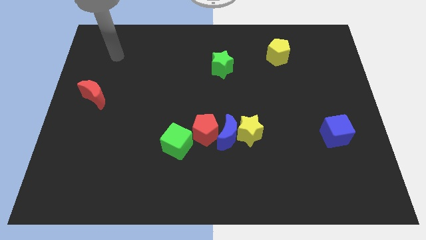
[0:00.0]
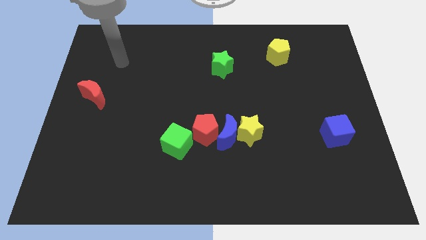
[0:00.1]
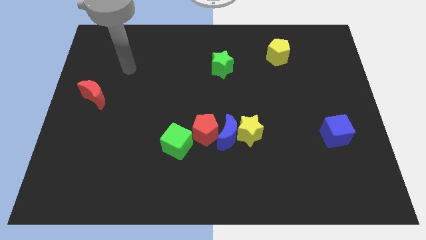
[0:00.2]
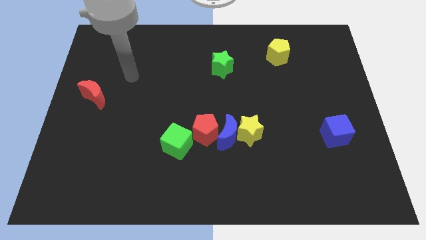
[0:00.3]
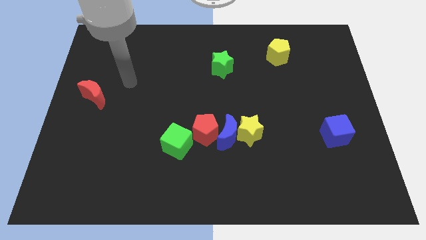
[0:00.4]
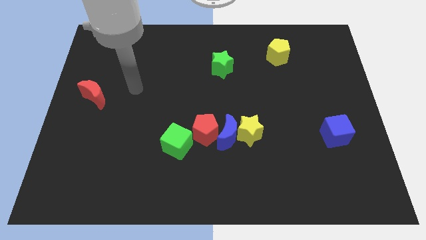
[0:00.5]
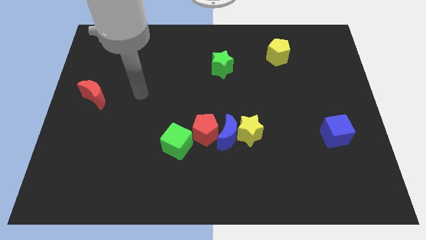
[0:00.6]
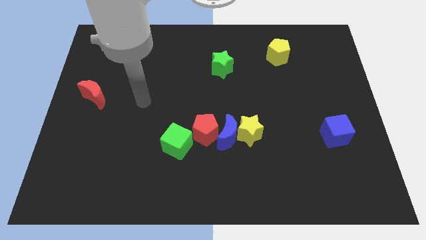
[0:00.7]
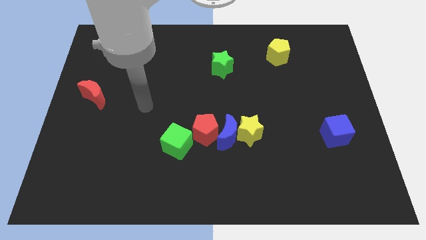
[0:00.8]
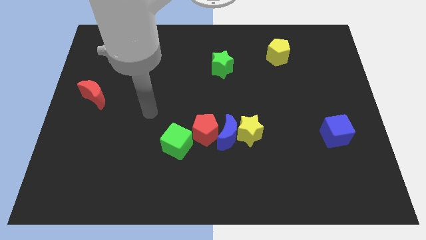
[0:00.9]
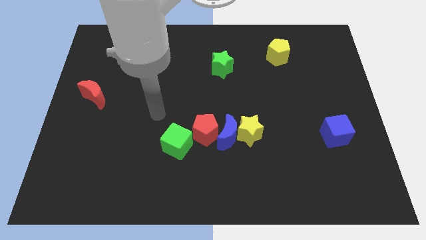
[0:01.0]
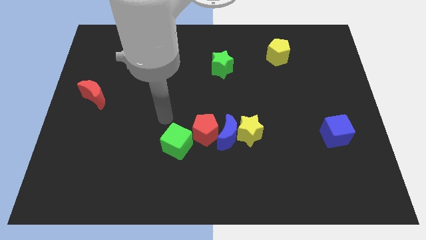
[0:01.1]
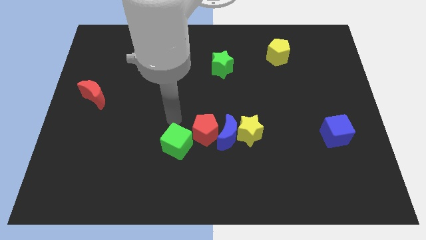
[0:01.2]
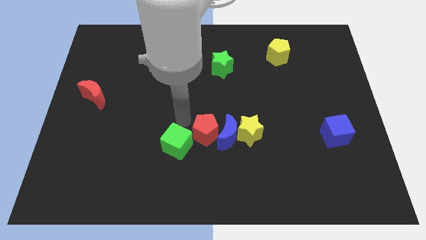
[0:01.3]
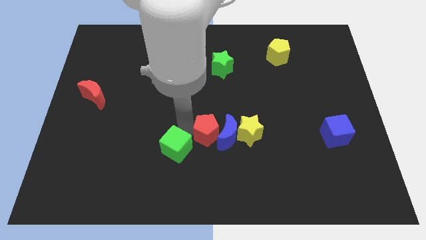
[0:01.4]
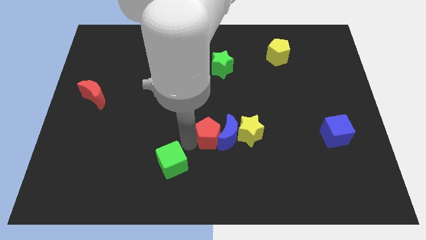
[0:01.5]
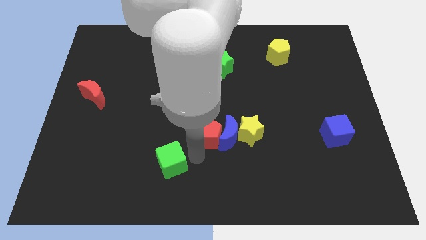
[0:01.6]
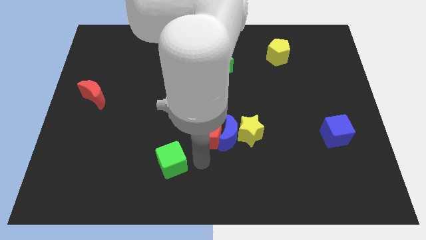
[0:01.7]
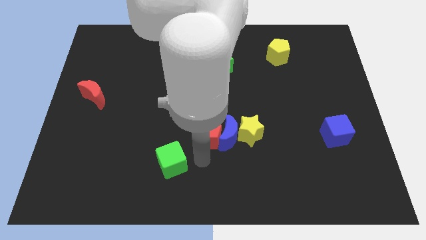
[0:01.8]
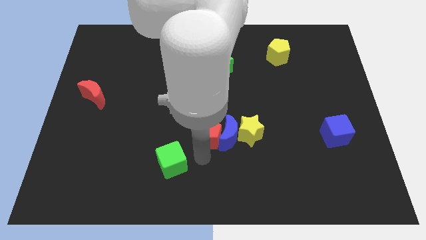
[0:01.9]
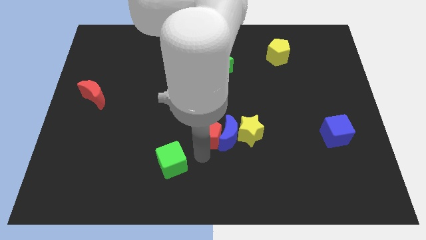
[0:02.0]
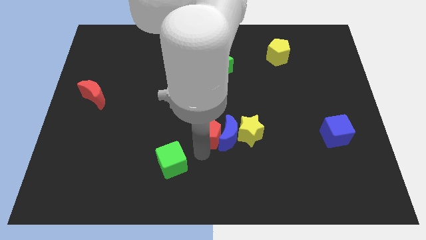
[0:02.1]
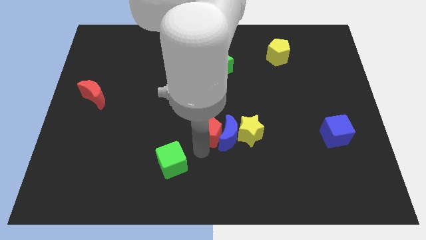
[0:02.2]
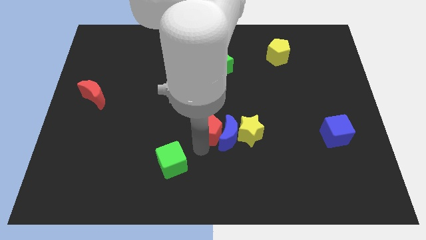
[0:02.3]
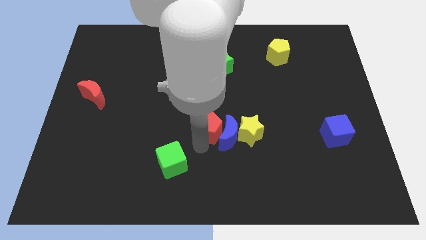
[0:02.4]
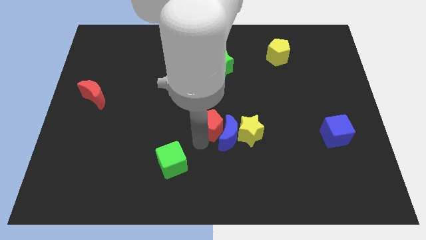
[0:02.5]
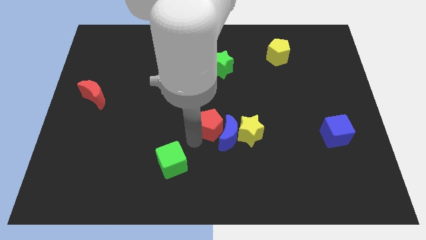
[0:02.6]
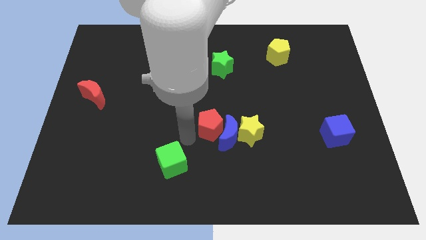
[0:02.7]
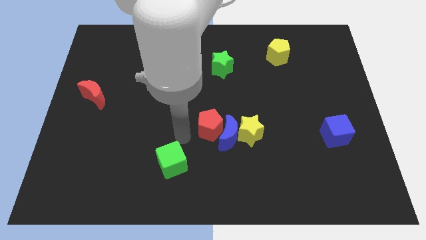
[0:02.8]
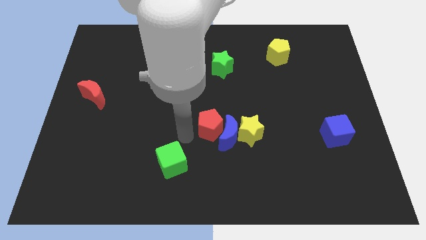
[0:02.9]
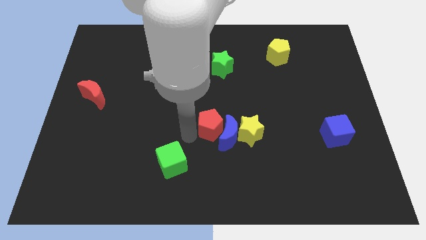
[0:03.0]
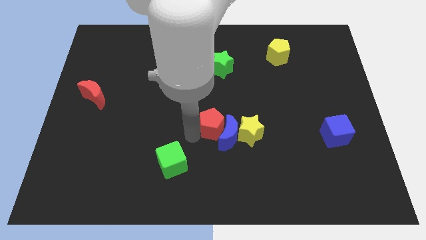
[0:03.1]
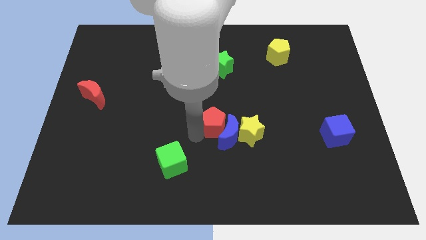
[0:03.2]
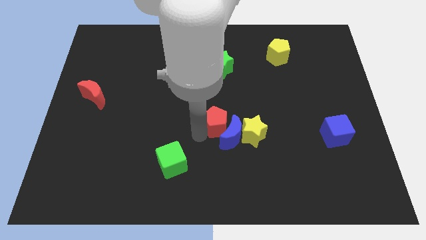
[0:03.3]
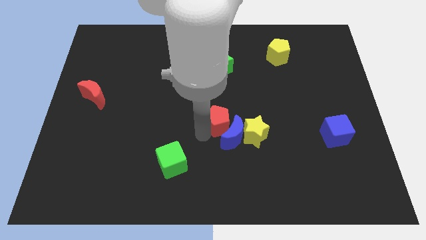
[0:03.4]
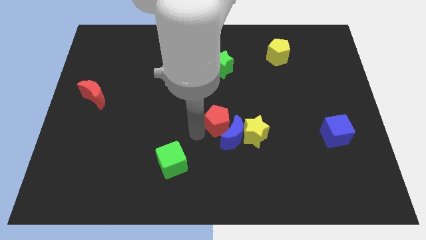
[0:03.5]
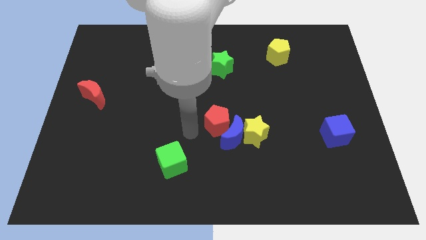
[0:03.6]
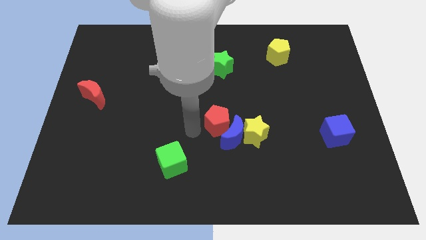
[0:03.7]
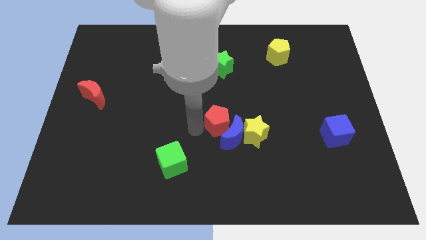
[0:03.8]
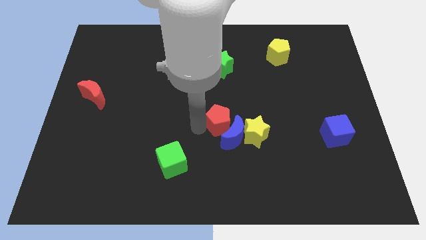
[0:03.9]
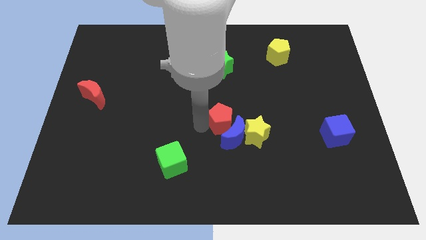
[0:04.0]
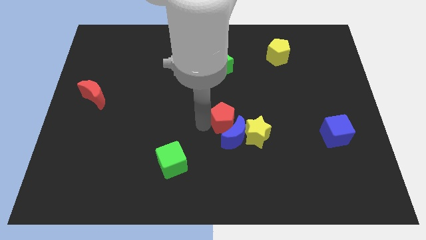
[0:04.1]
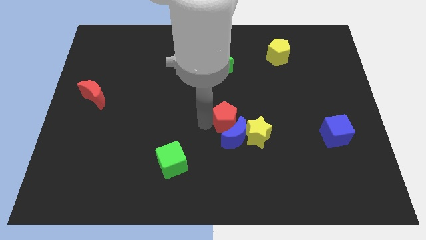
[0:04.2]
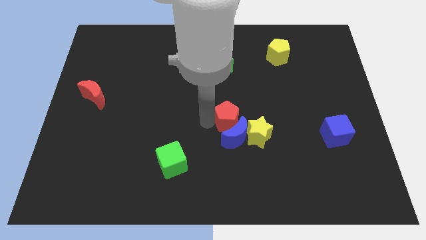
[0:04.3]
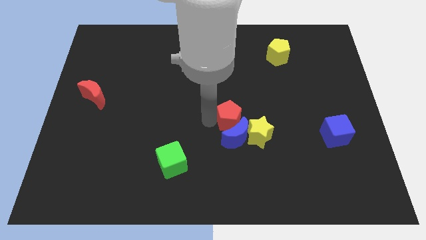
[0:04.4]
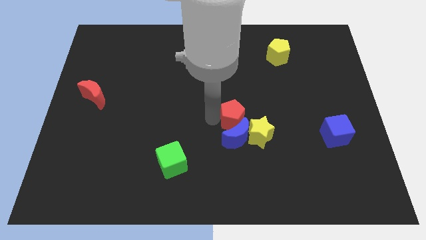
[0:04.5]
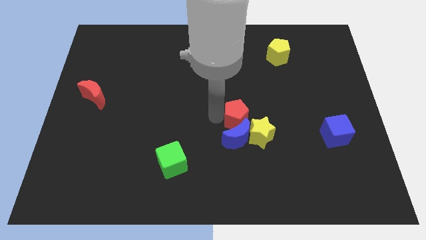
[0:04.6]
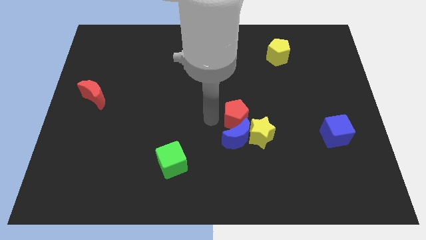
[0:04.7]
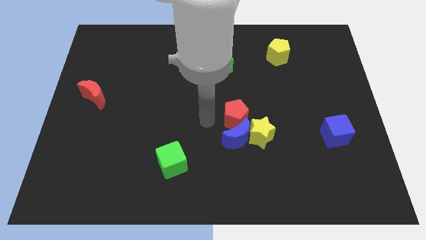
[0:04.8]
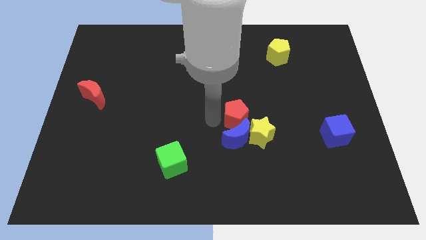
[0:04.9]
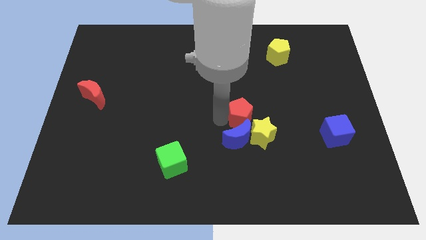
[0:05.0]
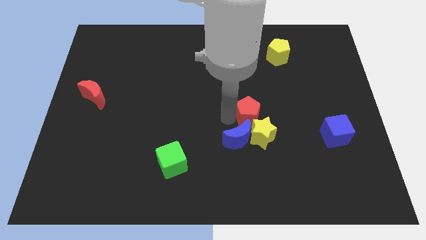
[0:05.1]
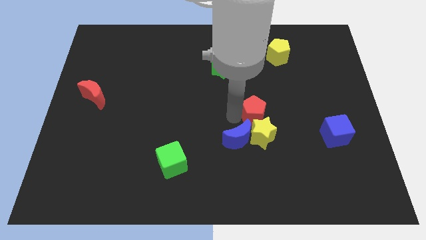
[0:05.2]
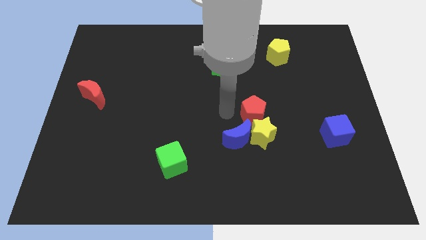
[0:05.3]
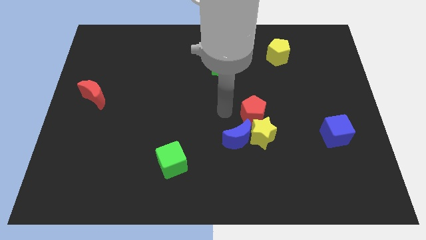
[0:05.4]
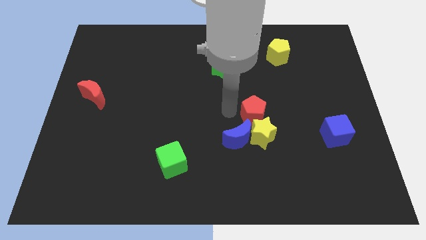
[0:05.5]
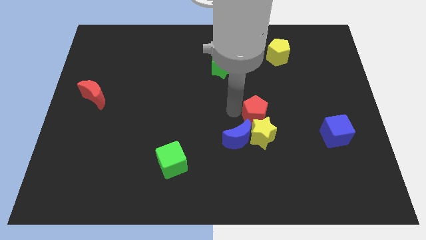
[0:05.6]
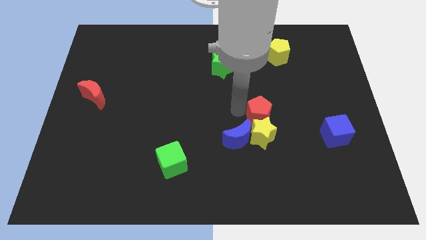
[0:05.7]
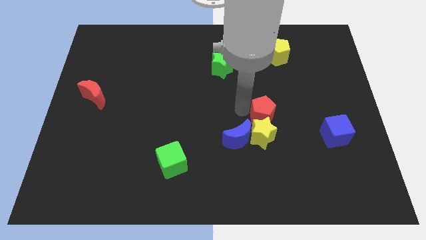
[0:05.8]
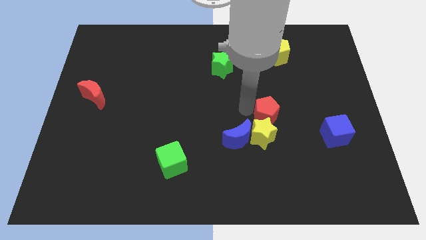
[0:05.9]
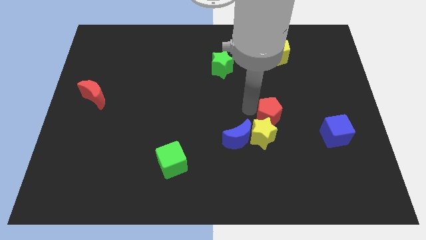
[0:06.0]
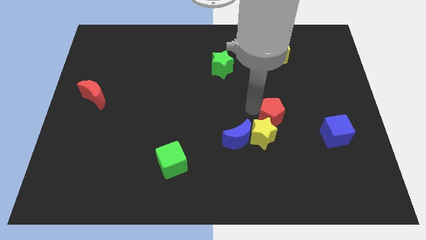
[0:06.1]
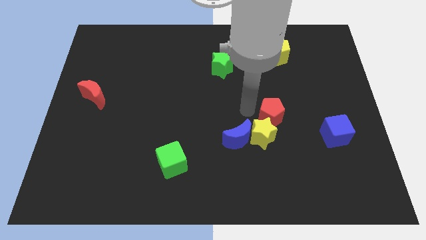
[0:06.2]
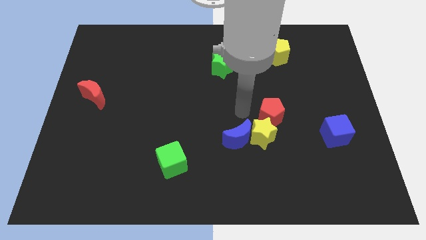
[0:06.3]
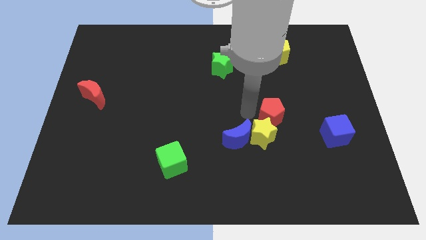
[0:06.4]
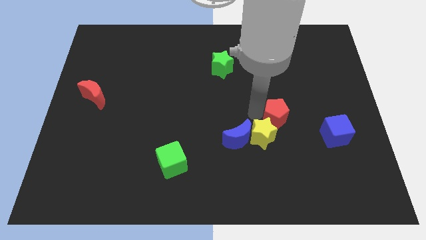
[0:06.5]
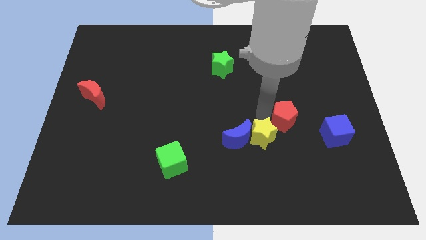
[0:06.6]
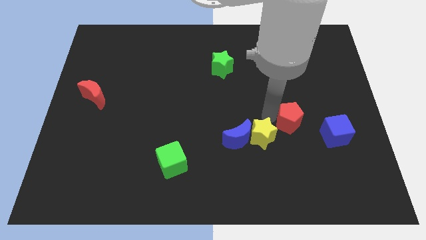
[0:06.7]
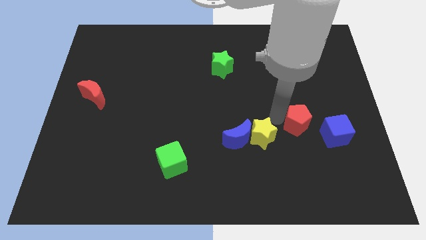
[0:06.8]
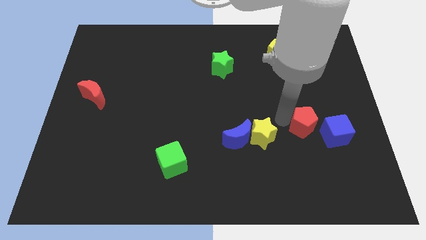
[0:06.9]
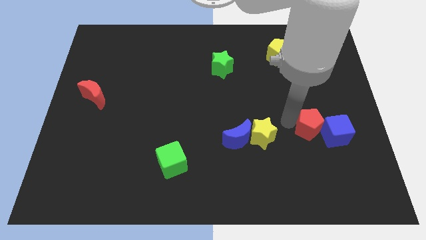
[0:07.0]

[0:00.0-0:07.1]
push the red pentagon towards the blue cube

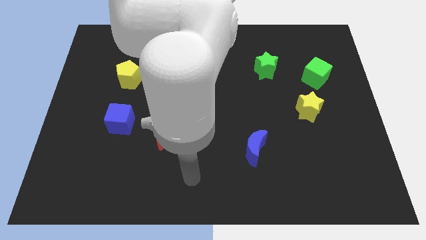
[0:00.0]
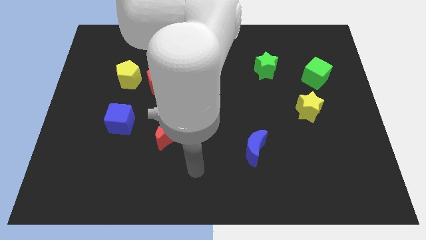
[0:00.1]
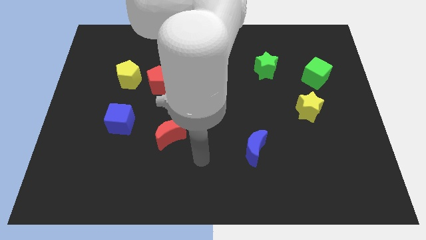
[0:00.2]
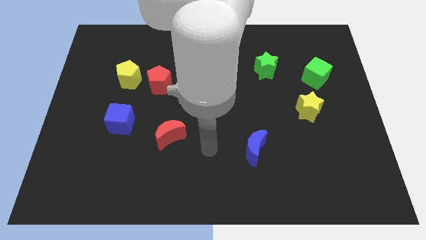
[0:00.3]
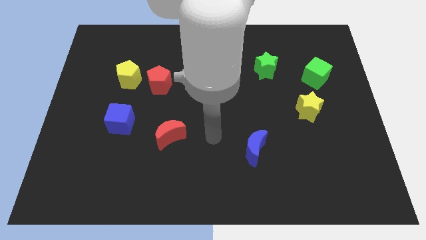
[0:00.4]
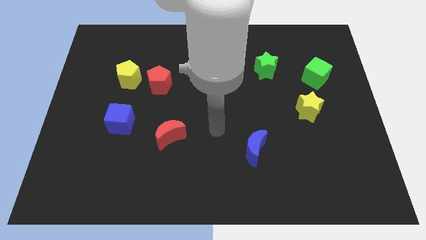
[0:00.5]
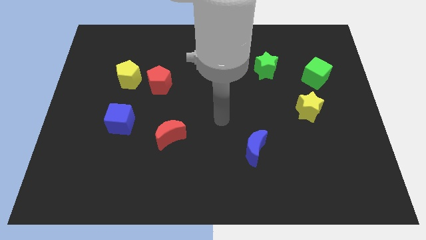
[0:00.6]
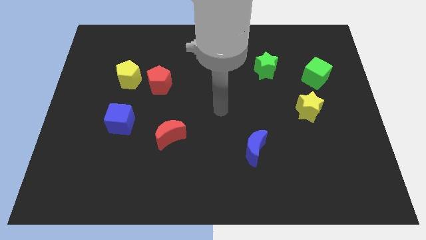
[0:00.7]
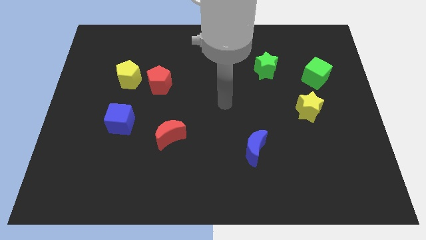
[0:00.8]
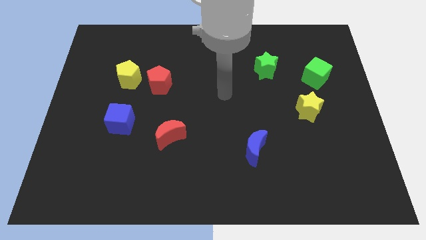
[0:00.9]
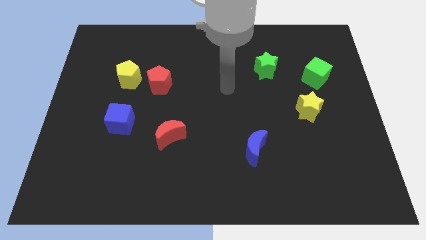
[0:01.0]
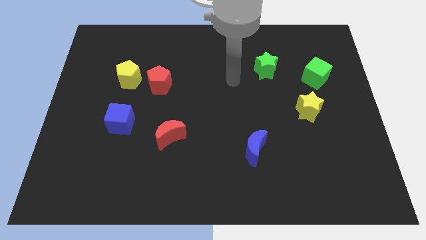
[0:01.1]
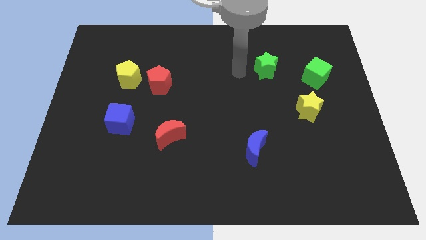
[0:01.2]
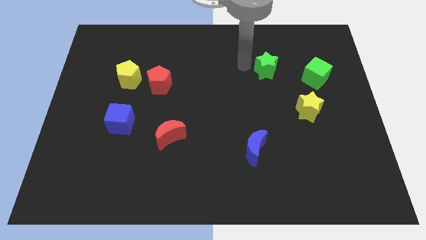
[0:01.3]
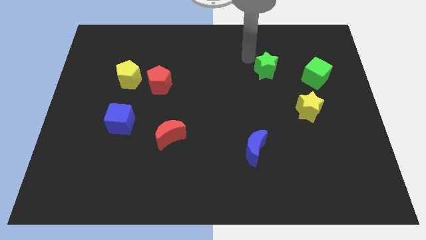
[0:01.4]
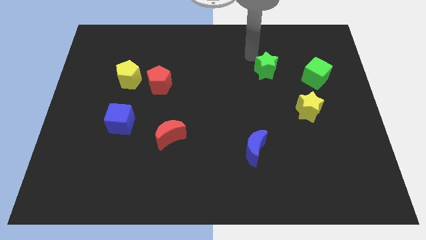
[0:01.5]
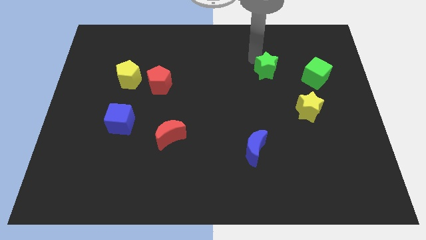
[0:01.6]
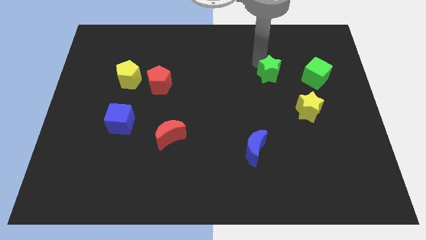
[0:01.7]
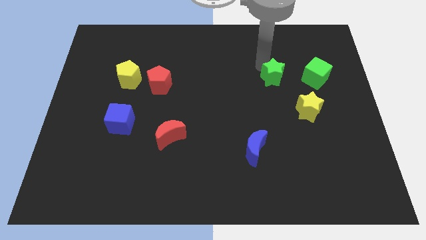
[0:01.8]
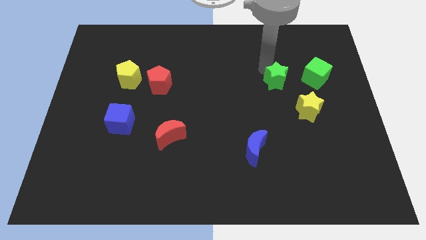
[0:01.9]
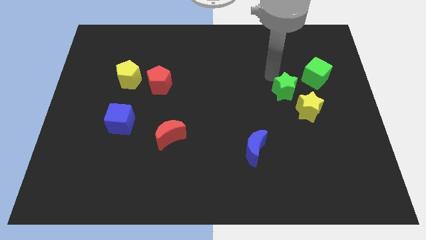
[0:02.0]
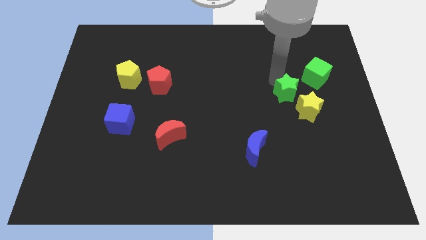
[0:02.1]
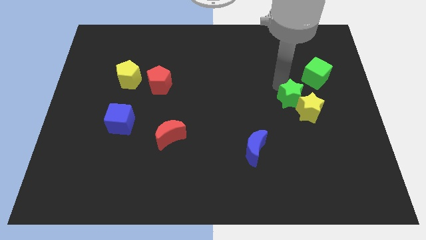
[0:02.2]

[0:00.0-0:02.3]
push the green star next to the yellow star
